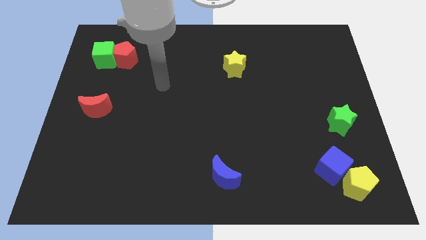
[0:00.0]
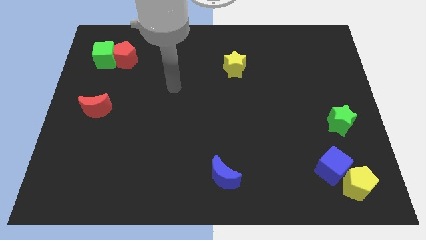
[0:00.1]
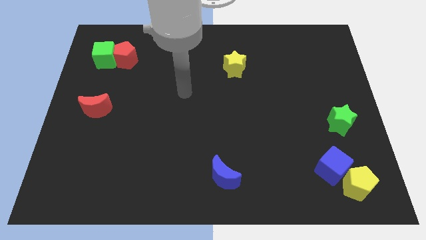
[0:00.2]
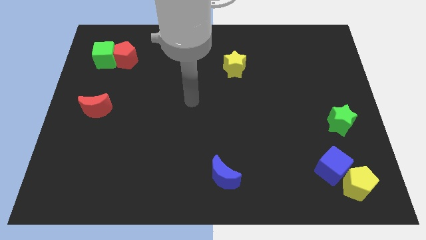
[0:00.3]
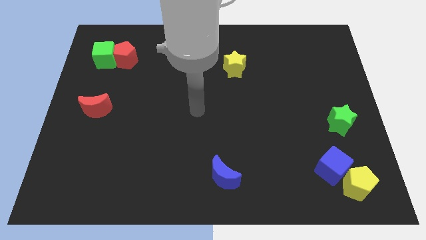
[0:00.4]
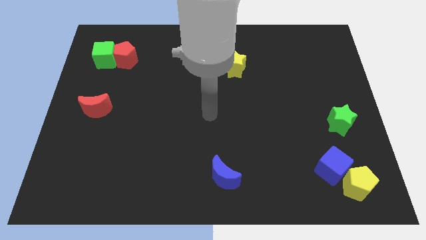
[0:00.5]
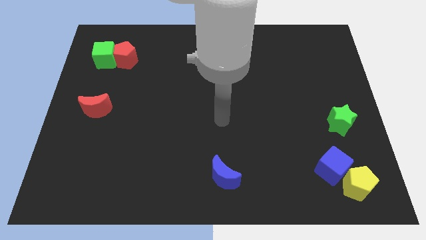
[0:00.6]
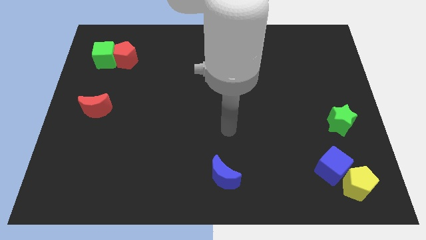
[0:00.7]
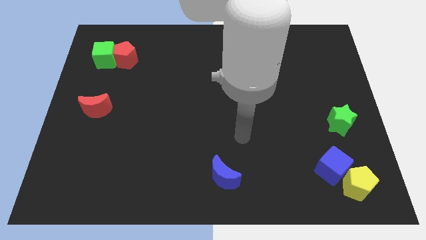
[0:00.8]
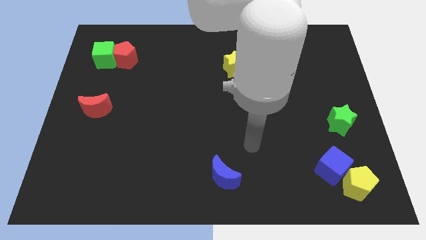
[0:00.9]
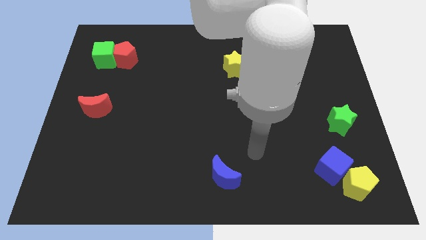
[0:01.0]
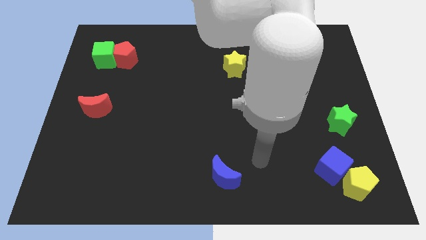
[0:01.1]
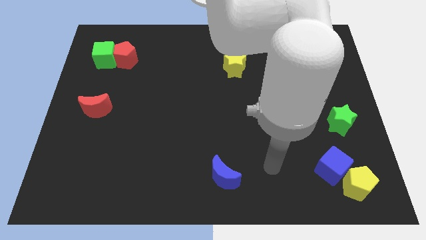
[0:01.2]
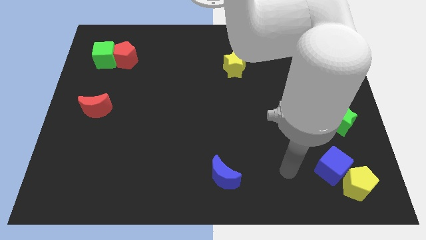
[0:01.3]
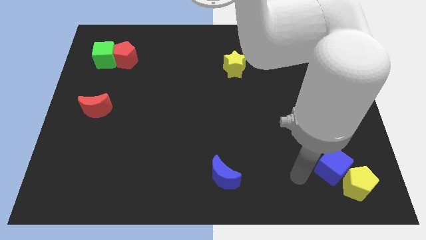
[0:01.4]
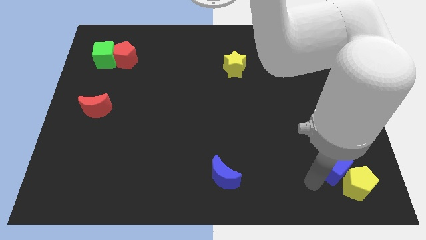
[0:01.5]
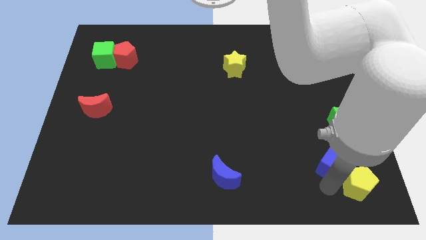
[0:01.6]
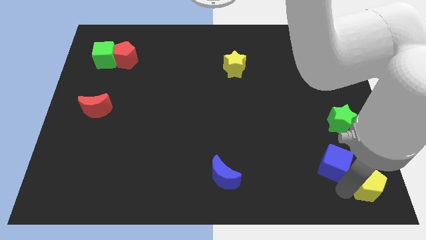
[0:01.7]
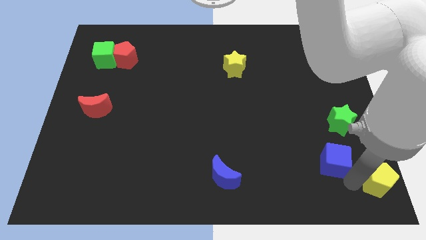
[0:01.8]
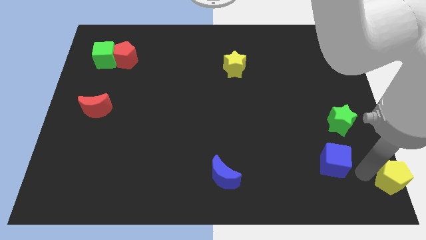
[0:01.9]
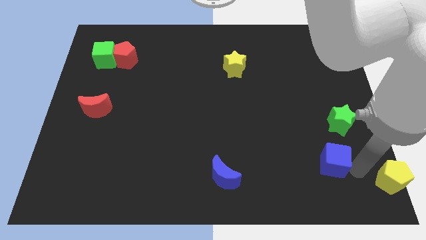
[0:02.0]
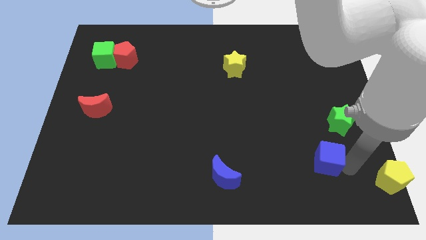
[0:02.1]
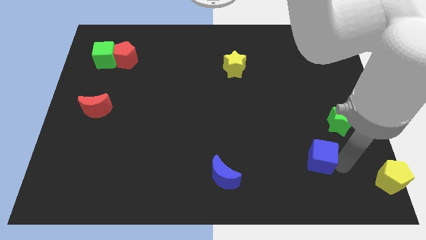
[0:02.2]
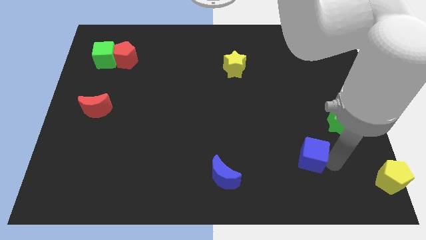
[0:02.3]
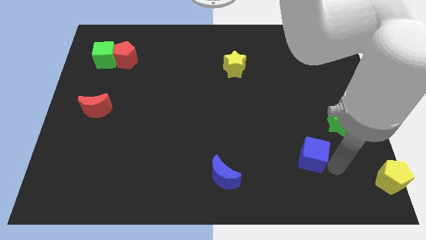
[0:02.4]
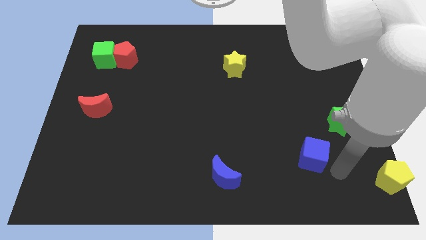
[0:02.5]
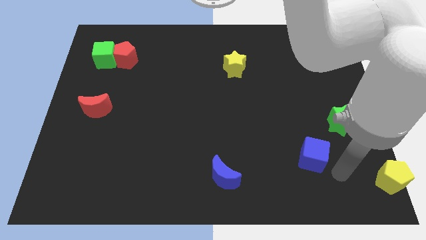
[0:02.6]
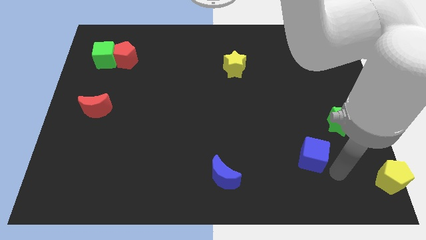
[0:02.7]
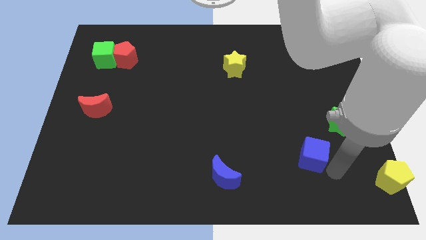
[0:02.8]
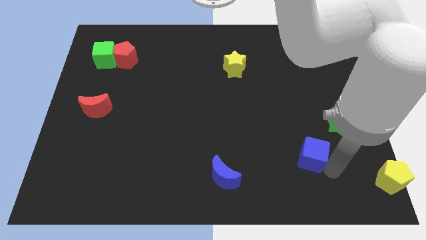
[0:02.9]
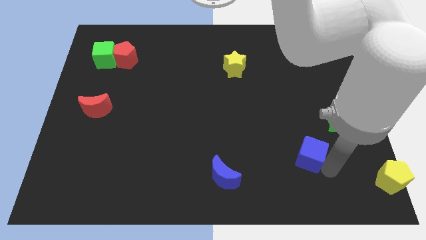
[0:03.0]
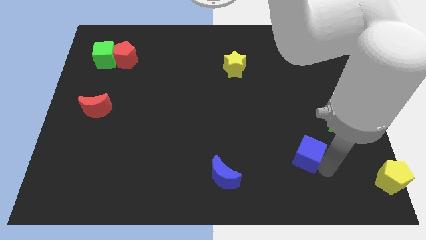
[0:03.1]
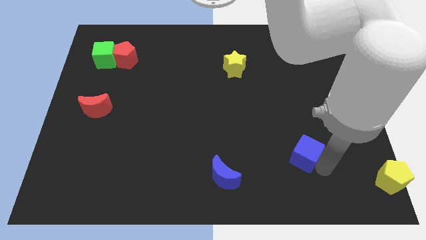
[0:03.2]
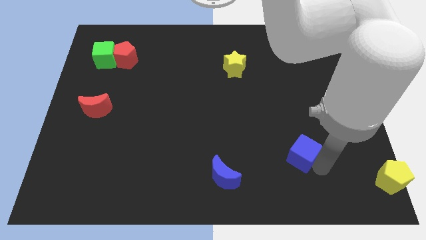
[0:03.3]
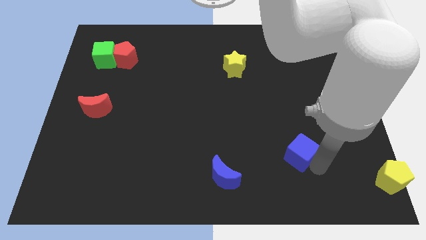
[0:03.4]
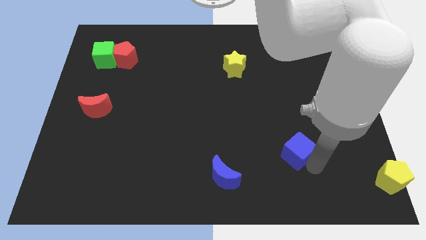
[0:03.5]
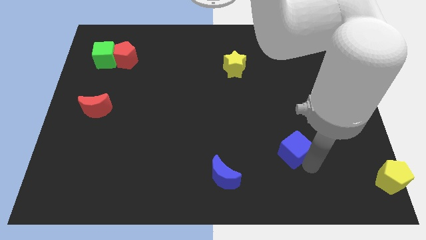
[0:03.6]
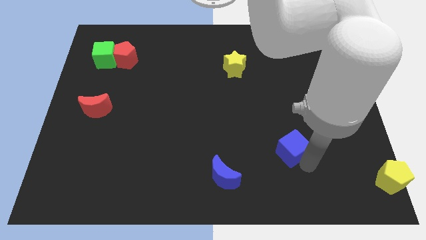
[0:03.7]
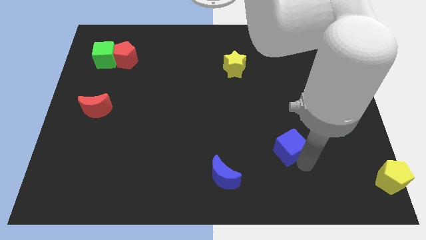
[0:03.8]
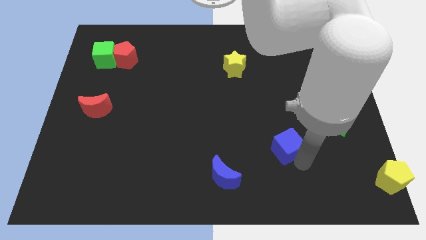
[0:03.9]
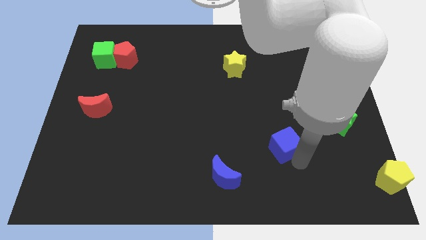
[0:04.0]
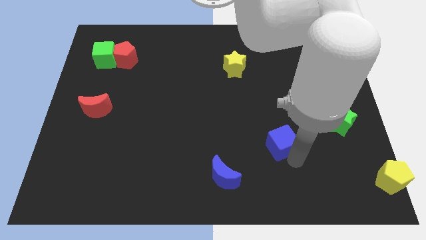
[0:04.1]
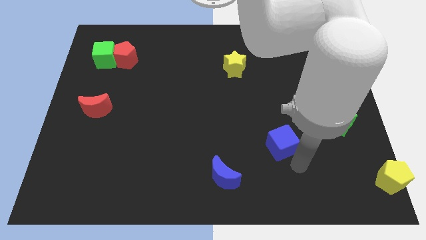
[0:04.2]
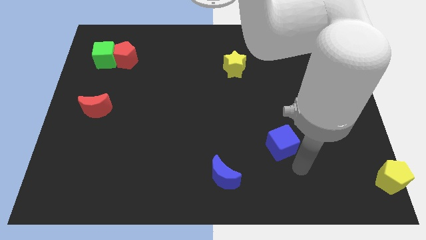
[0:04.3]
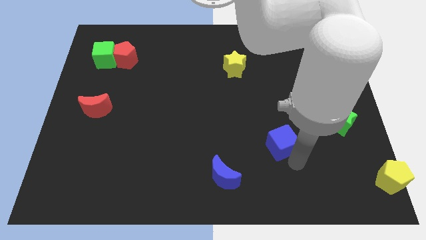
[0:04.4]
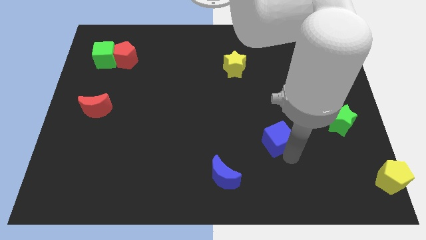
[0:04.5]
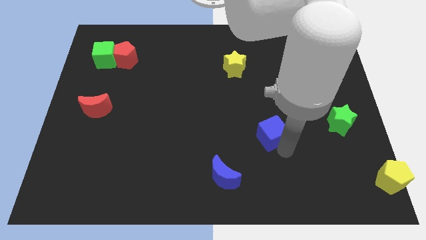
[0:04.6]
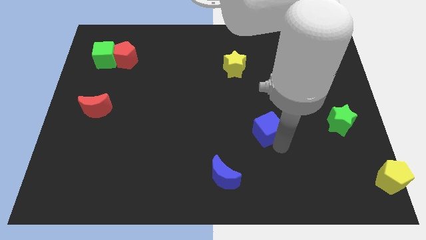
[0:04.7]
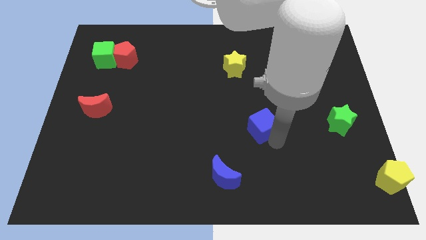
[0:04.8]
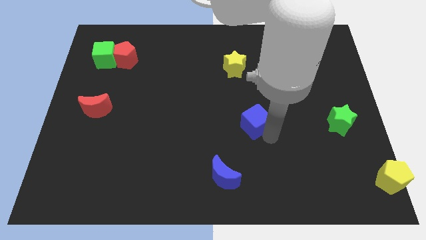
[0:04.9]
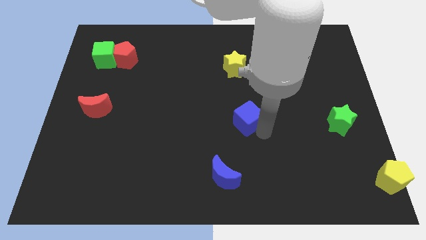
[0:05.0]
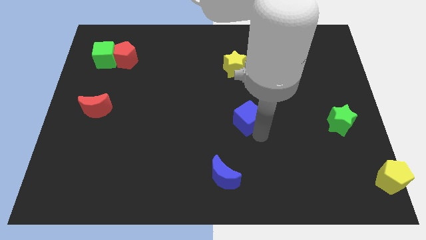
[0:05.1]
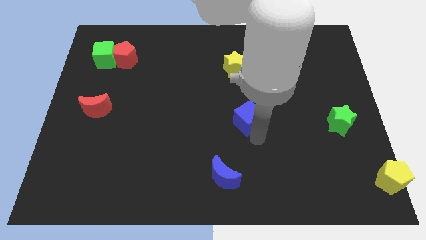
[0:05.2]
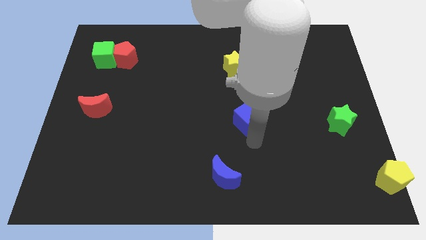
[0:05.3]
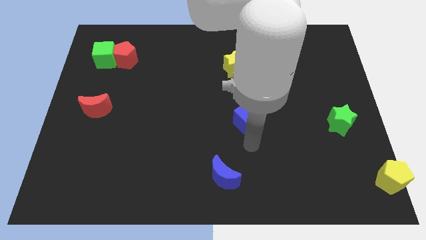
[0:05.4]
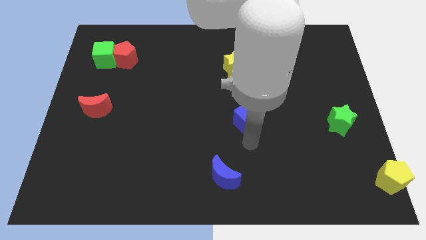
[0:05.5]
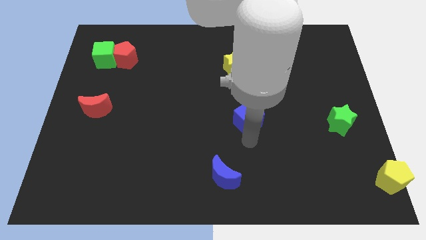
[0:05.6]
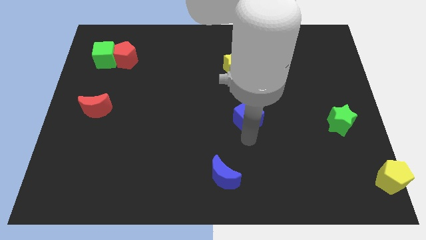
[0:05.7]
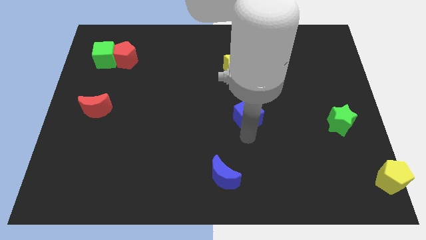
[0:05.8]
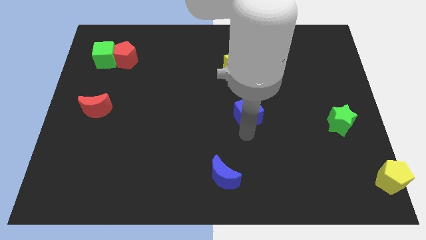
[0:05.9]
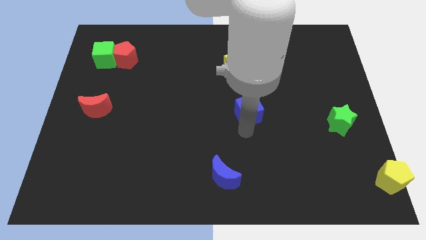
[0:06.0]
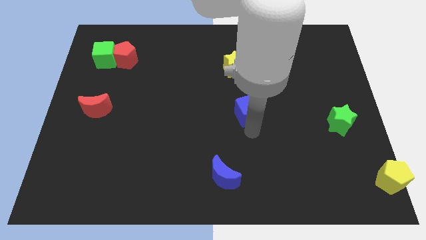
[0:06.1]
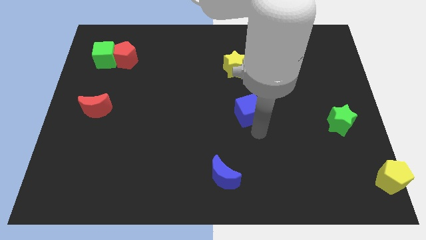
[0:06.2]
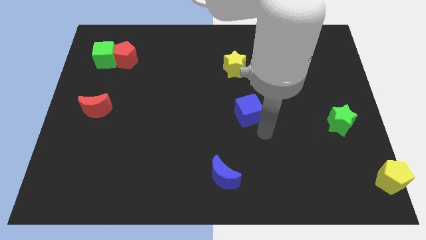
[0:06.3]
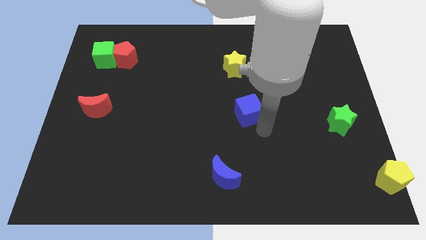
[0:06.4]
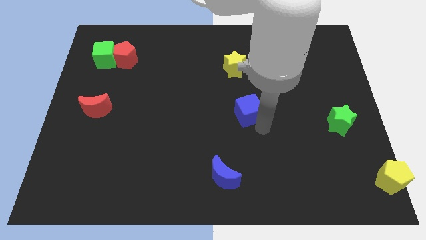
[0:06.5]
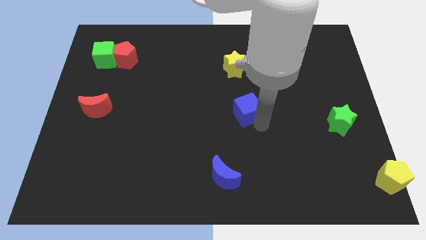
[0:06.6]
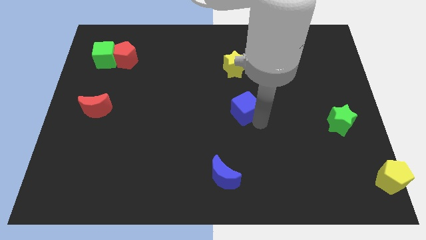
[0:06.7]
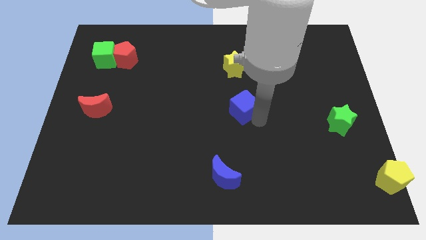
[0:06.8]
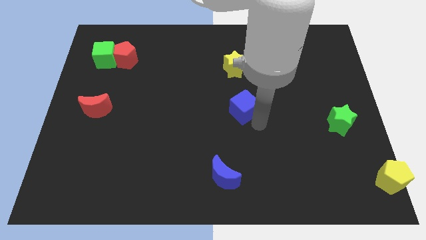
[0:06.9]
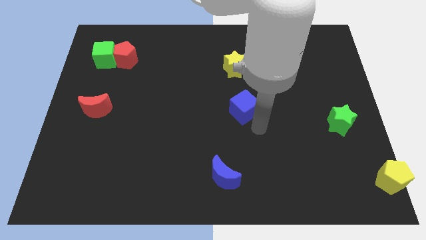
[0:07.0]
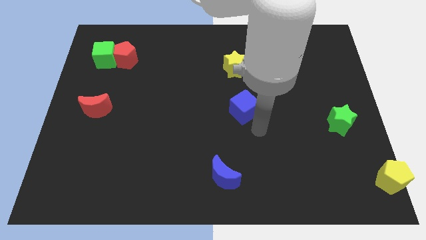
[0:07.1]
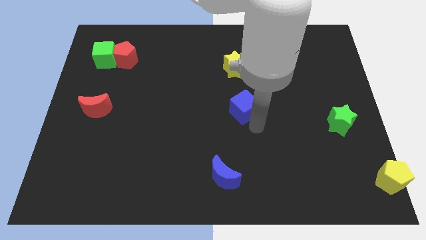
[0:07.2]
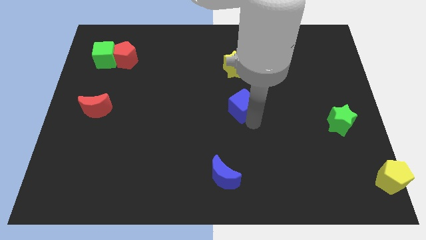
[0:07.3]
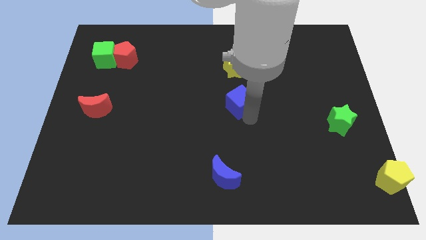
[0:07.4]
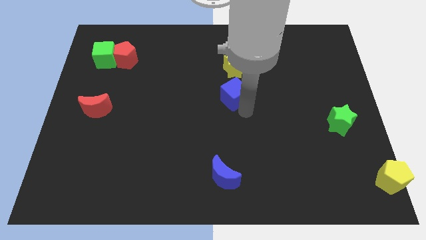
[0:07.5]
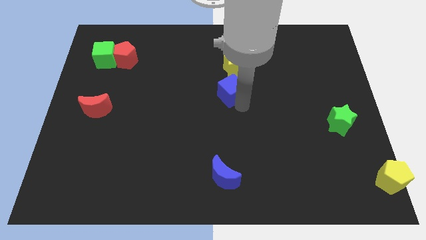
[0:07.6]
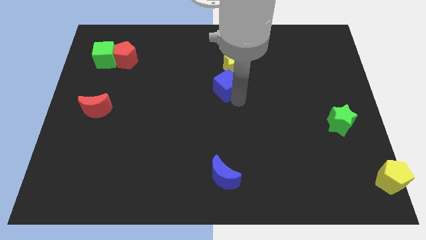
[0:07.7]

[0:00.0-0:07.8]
slide the blue cube to the bottom left side of the yellow star
